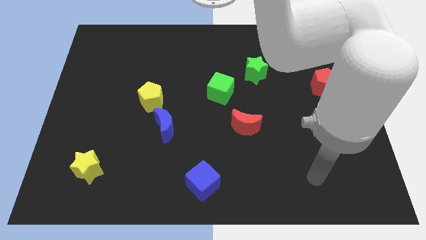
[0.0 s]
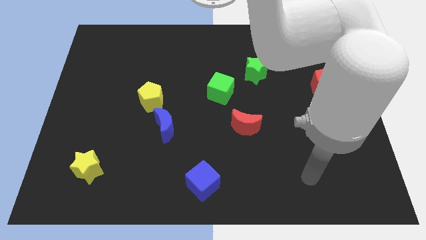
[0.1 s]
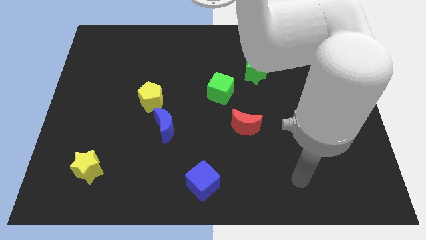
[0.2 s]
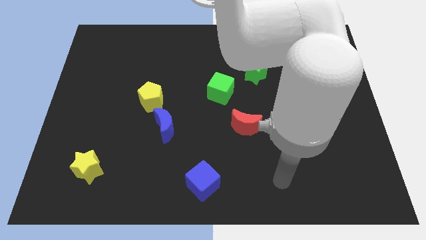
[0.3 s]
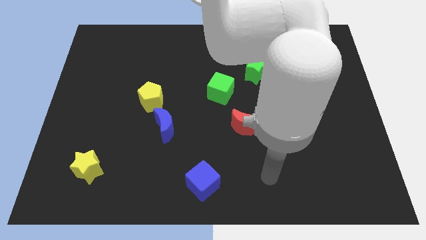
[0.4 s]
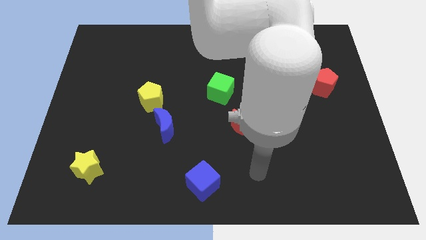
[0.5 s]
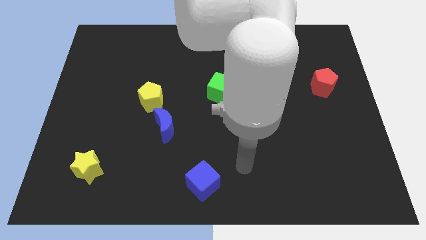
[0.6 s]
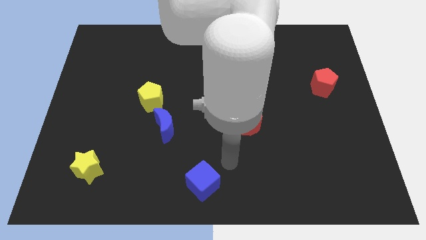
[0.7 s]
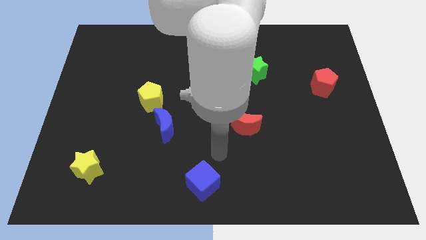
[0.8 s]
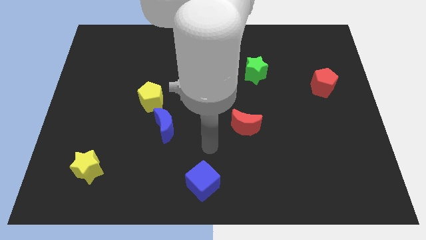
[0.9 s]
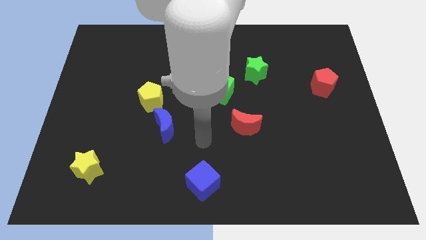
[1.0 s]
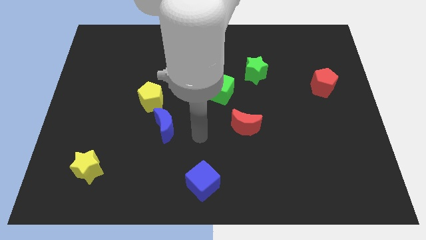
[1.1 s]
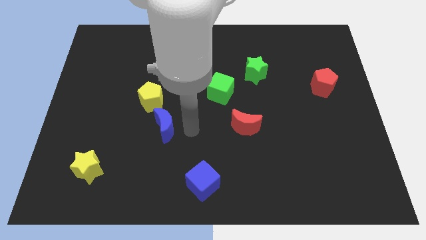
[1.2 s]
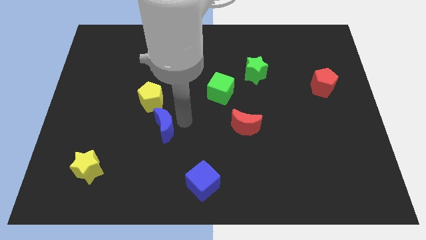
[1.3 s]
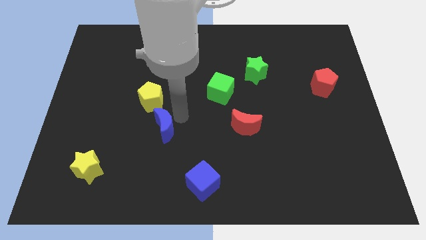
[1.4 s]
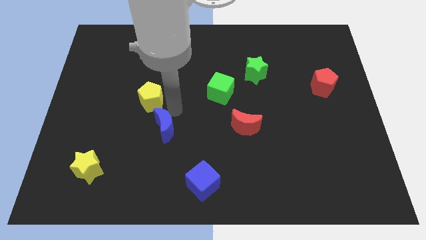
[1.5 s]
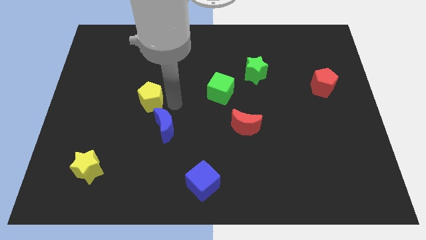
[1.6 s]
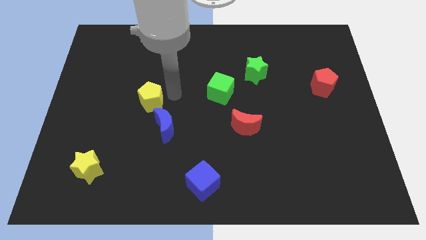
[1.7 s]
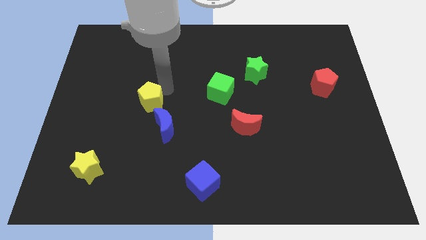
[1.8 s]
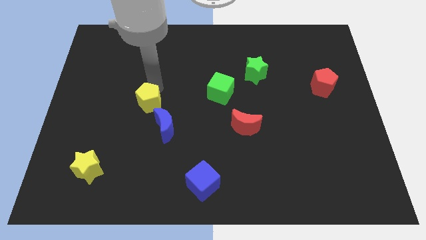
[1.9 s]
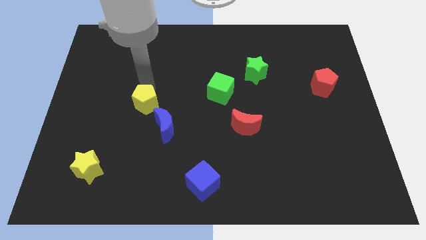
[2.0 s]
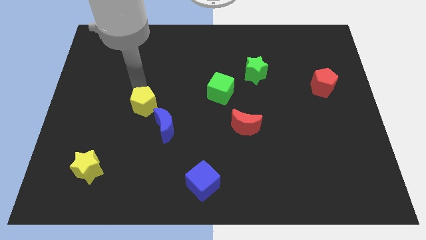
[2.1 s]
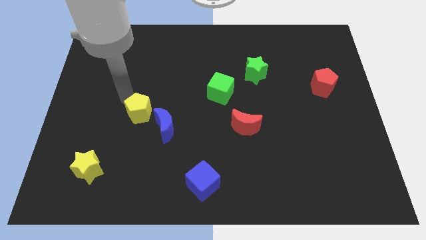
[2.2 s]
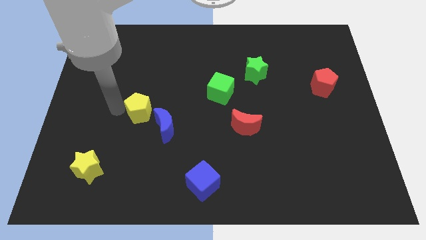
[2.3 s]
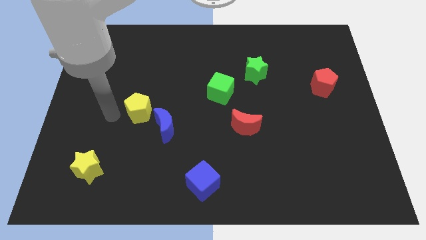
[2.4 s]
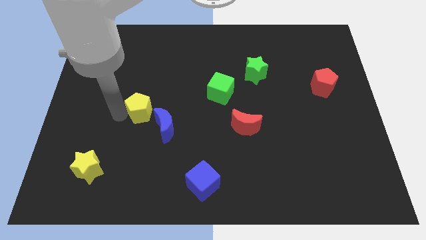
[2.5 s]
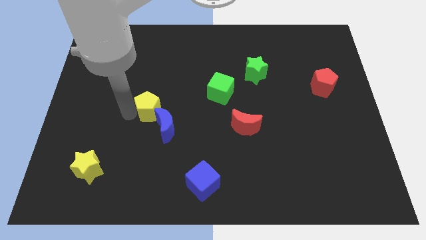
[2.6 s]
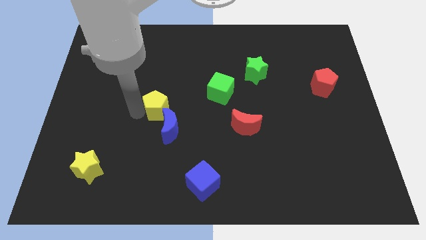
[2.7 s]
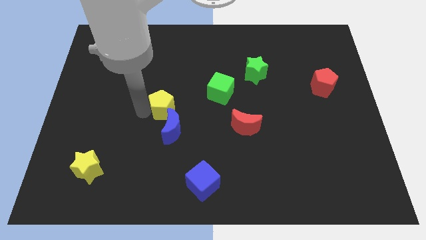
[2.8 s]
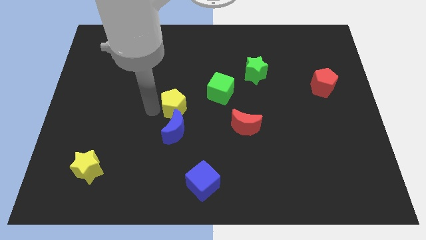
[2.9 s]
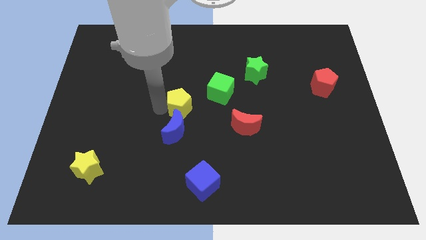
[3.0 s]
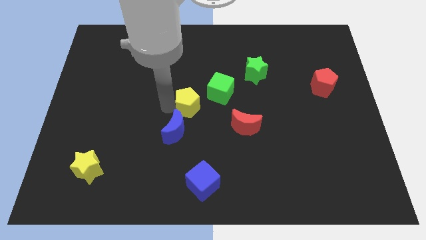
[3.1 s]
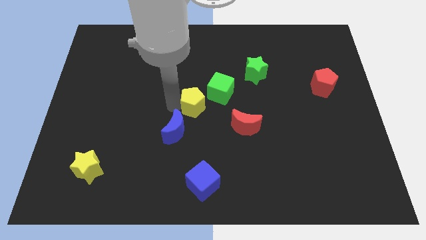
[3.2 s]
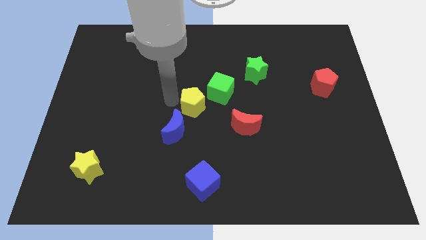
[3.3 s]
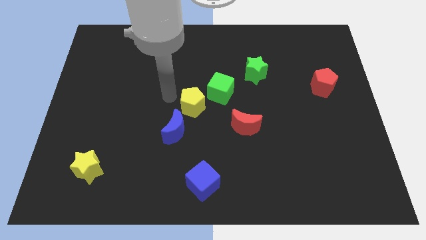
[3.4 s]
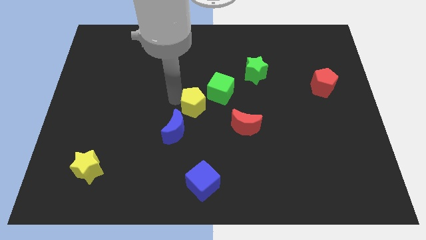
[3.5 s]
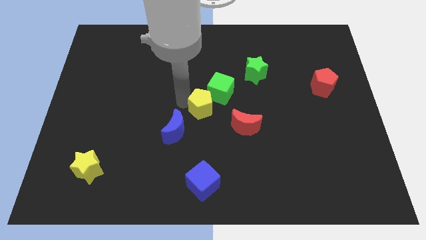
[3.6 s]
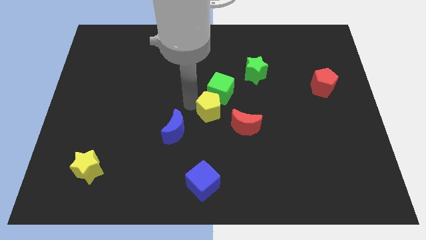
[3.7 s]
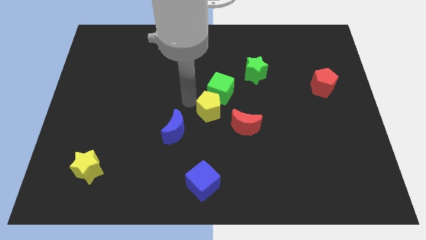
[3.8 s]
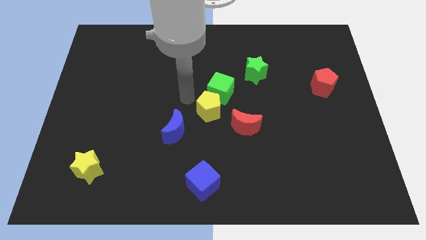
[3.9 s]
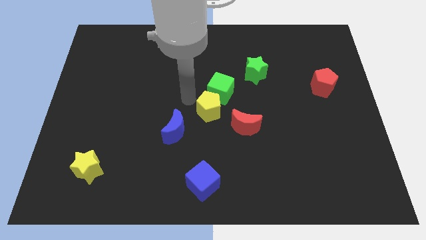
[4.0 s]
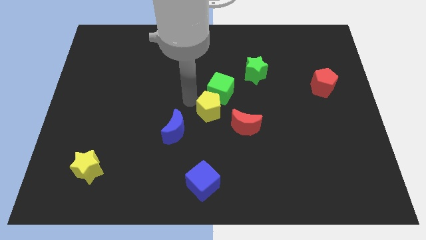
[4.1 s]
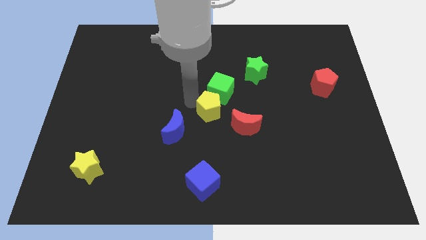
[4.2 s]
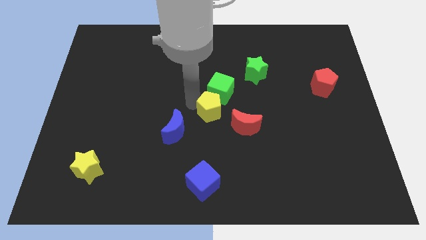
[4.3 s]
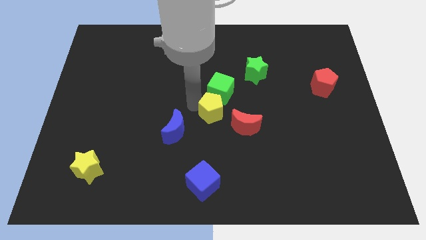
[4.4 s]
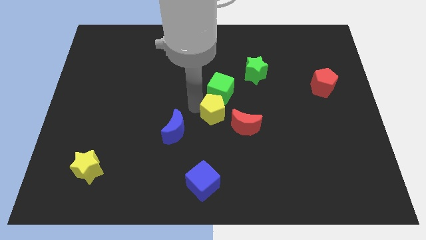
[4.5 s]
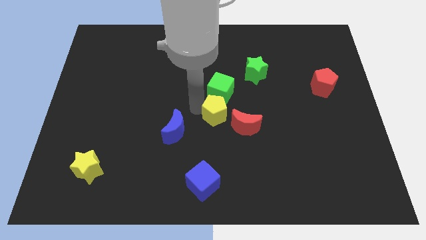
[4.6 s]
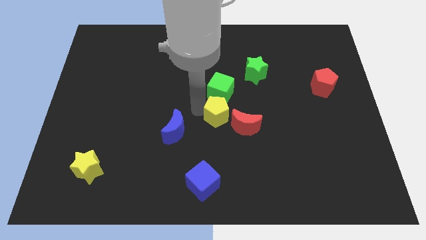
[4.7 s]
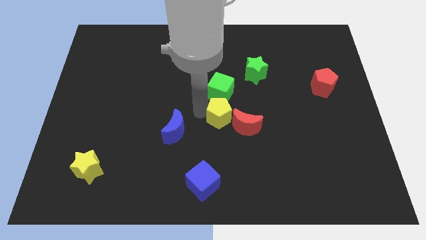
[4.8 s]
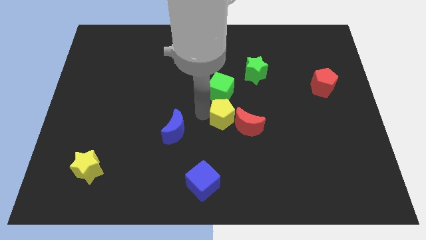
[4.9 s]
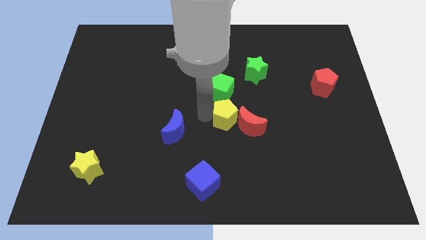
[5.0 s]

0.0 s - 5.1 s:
push the yellow pentagon towards the red moon

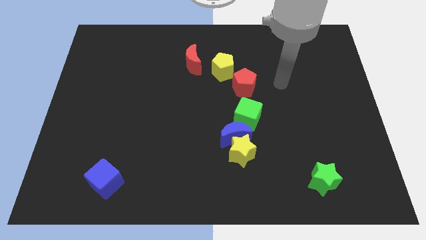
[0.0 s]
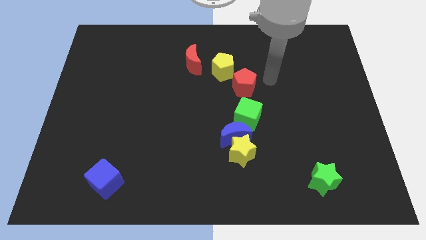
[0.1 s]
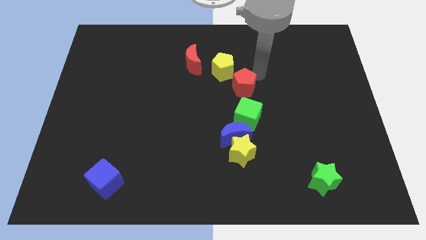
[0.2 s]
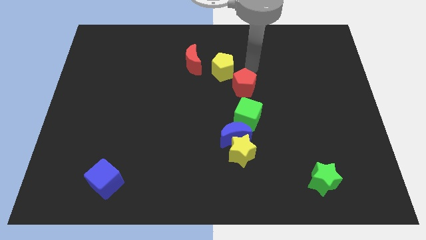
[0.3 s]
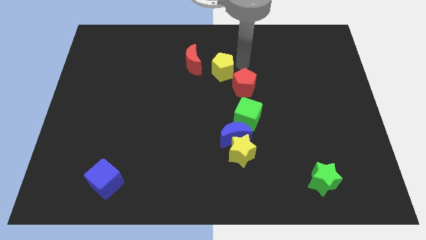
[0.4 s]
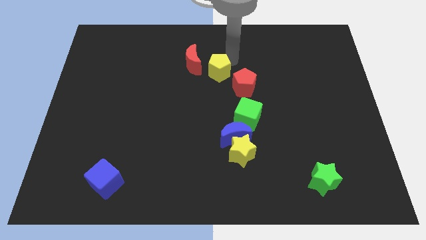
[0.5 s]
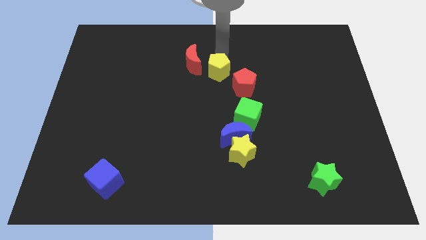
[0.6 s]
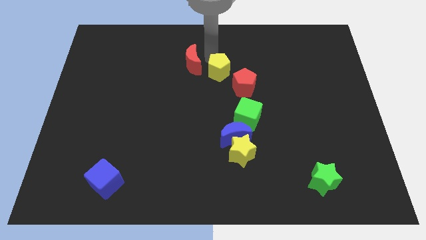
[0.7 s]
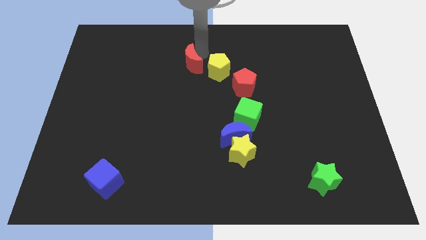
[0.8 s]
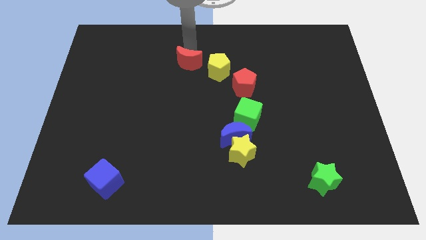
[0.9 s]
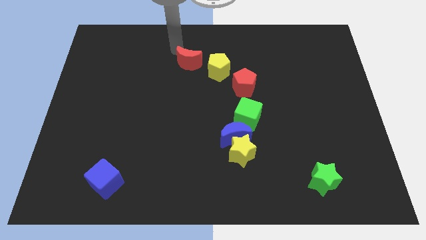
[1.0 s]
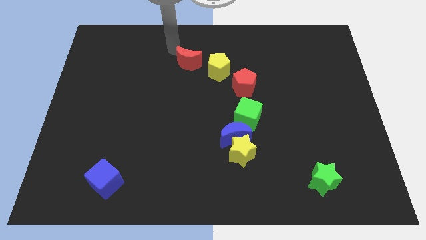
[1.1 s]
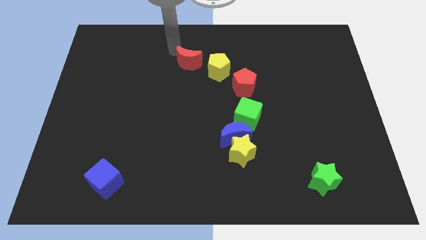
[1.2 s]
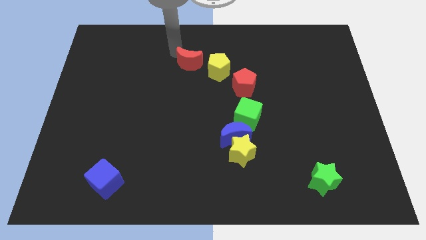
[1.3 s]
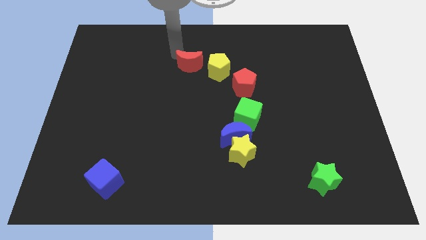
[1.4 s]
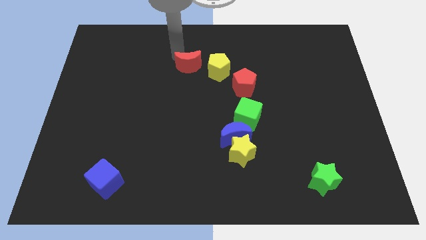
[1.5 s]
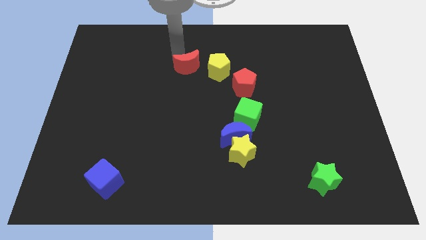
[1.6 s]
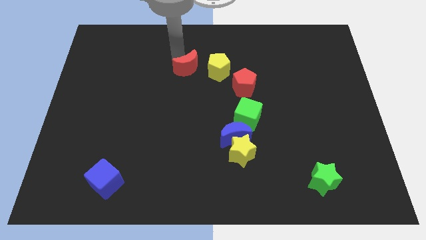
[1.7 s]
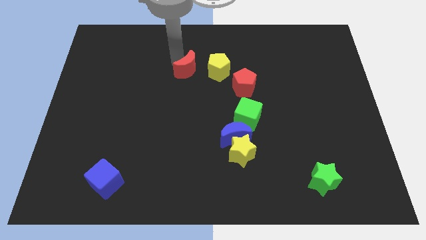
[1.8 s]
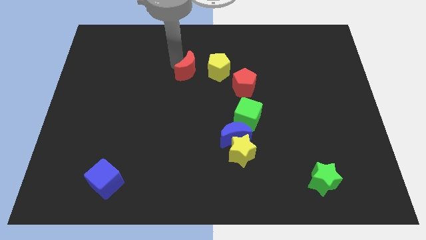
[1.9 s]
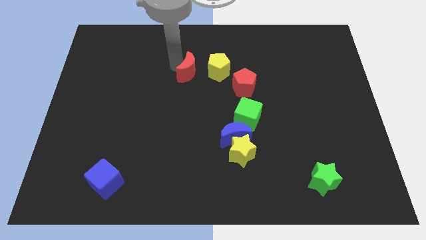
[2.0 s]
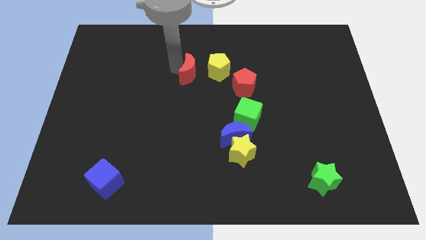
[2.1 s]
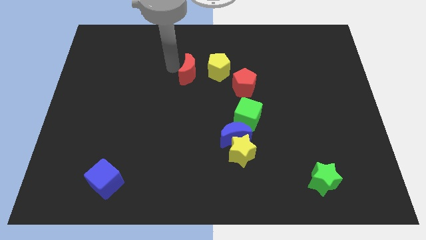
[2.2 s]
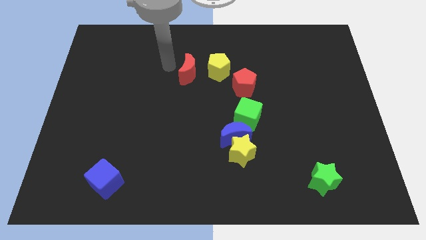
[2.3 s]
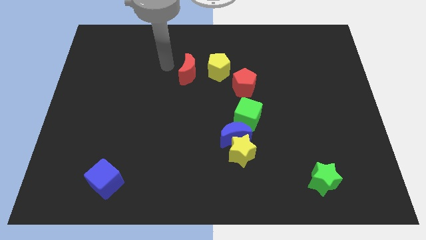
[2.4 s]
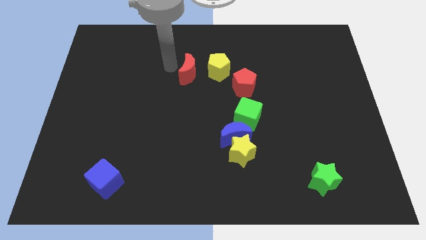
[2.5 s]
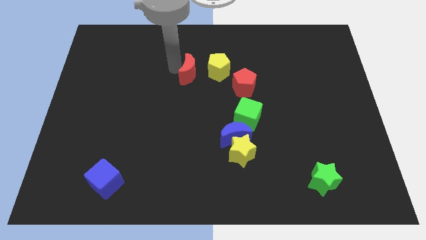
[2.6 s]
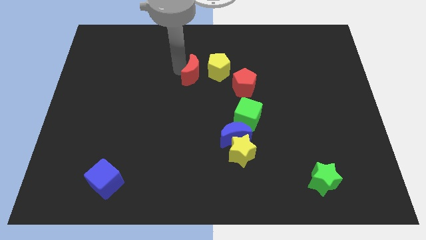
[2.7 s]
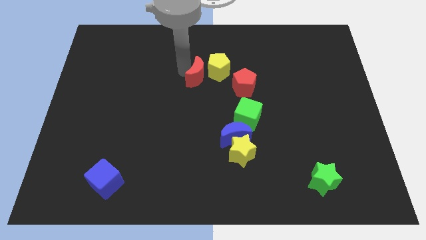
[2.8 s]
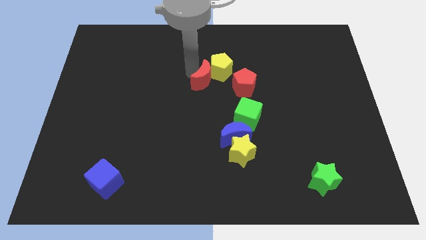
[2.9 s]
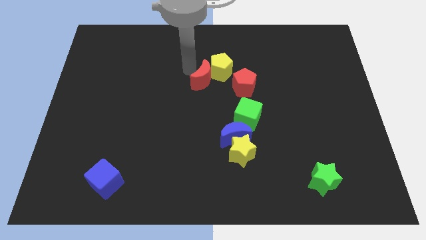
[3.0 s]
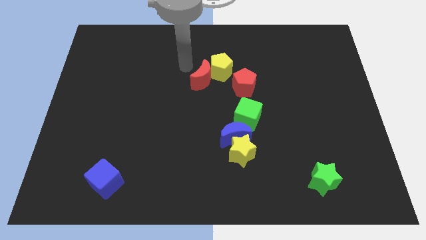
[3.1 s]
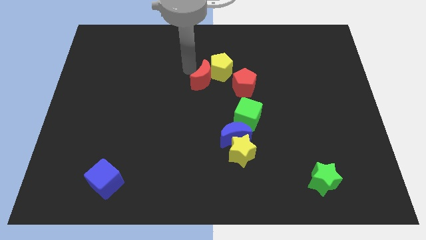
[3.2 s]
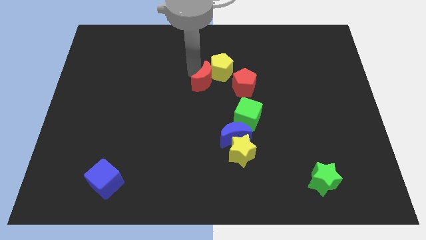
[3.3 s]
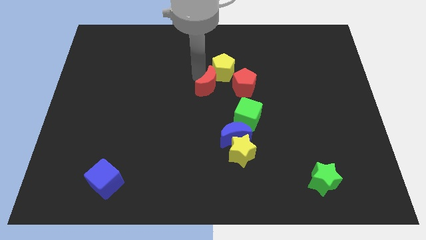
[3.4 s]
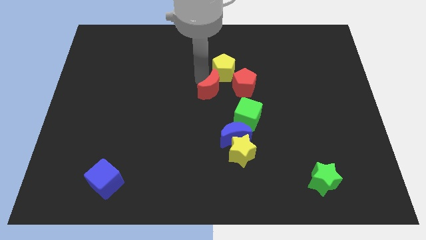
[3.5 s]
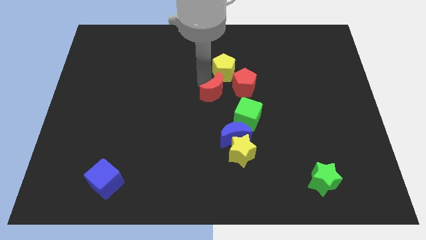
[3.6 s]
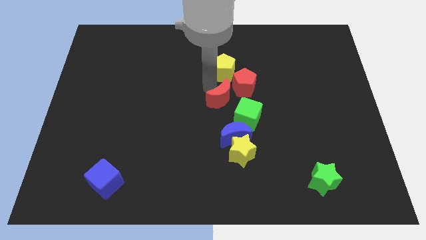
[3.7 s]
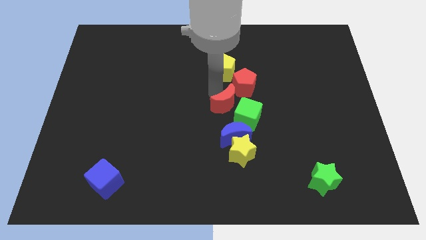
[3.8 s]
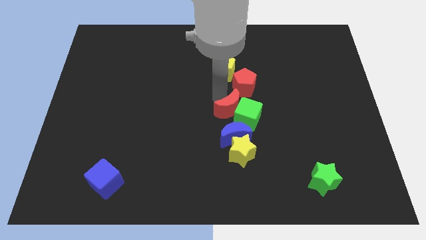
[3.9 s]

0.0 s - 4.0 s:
move the red moon close to the green cube
